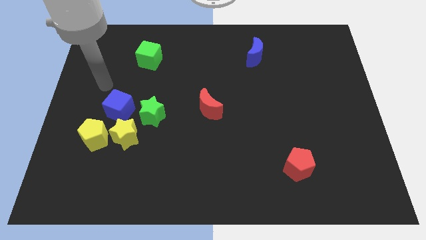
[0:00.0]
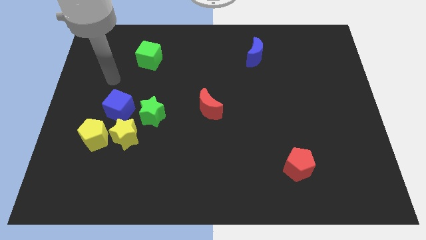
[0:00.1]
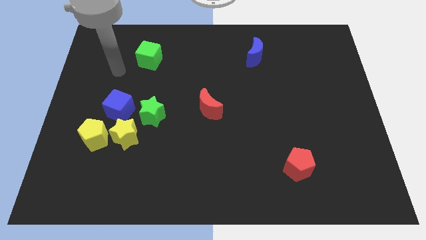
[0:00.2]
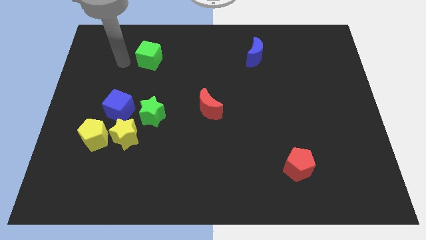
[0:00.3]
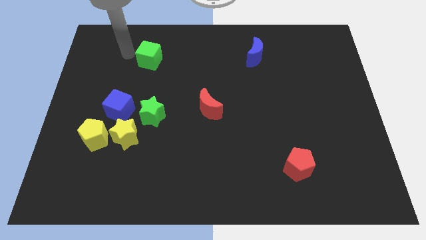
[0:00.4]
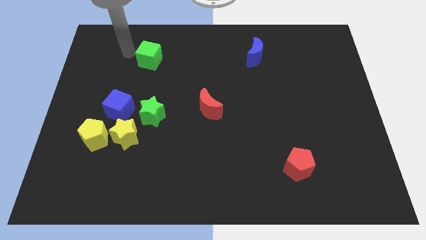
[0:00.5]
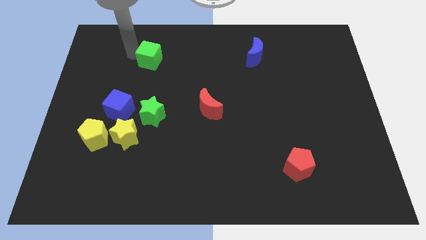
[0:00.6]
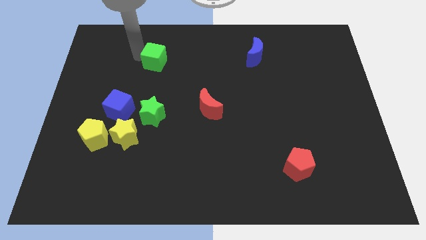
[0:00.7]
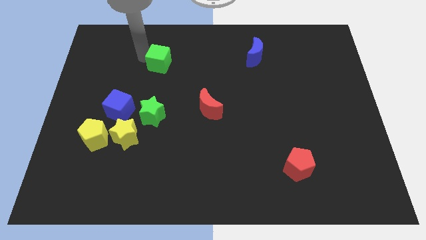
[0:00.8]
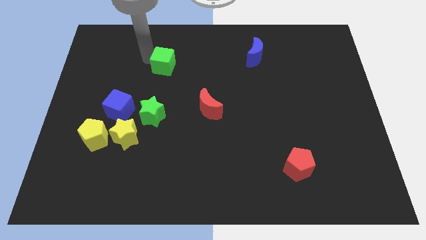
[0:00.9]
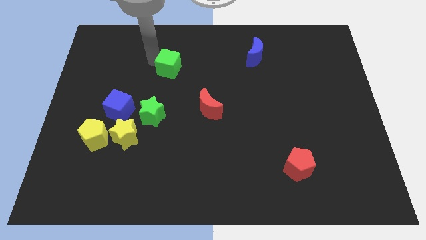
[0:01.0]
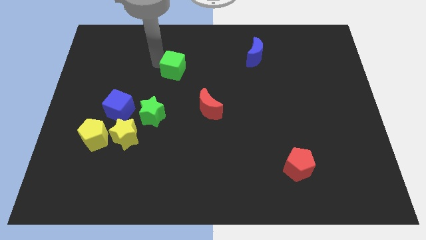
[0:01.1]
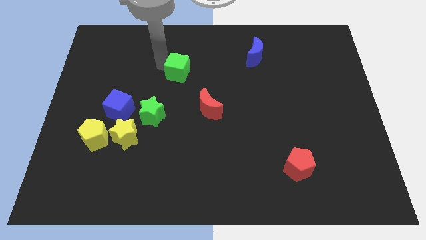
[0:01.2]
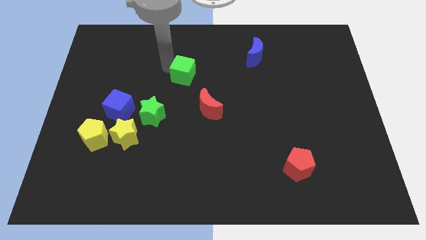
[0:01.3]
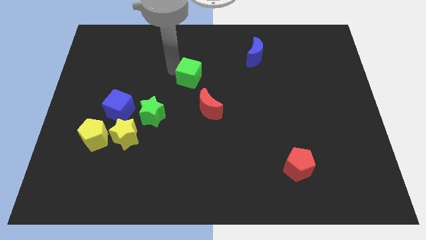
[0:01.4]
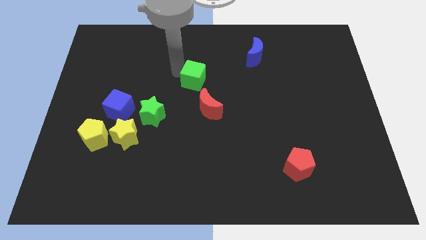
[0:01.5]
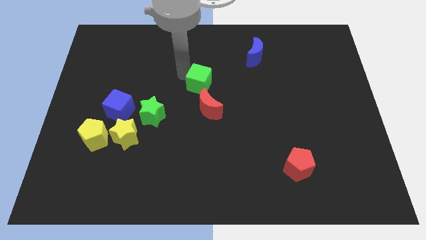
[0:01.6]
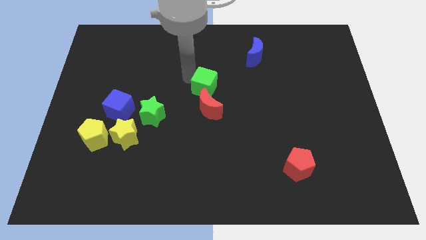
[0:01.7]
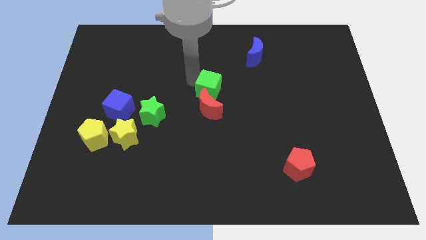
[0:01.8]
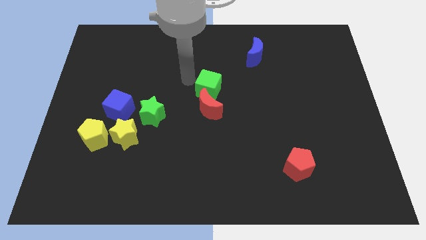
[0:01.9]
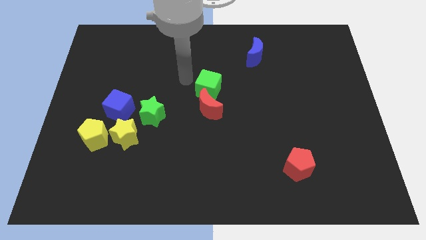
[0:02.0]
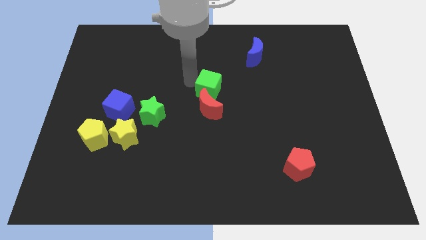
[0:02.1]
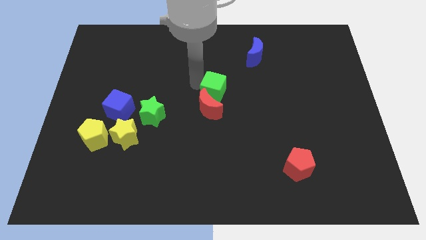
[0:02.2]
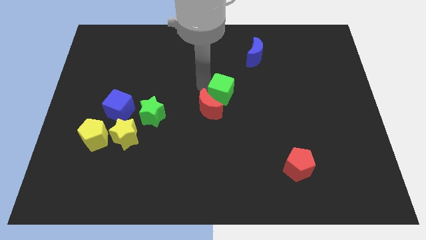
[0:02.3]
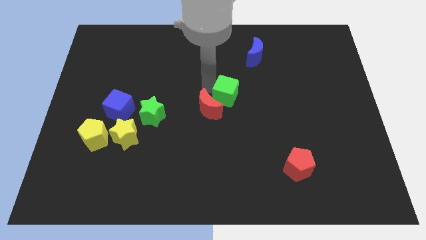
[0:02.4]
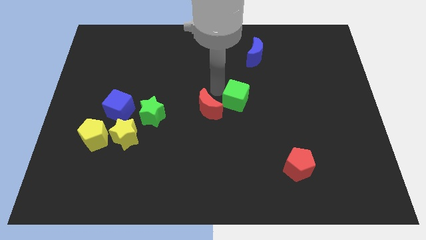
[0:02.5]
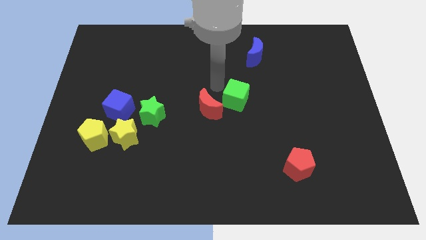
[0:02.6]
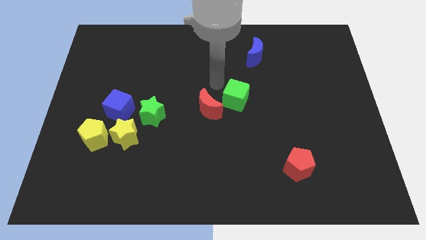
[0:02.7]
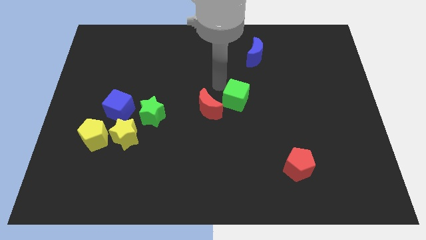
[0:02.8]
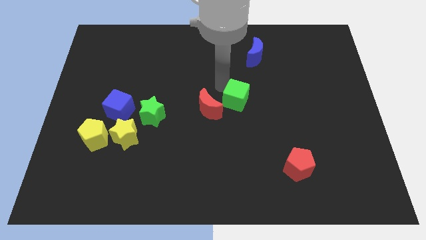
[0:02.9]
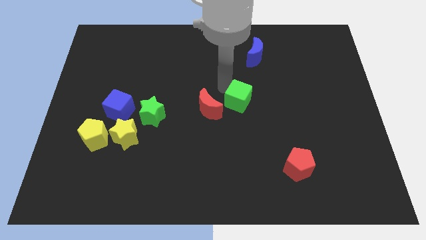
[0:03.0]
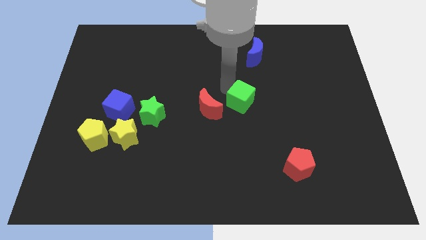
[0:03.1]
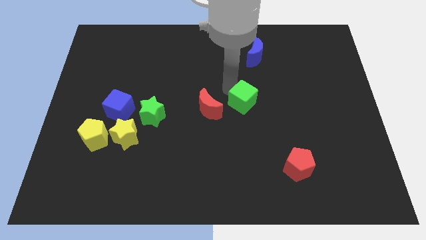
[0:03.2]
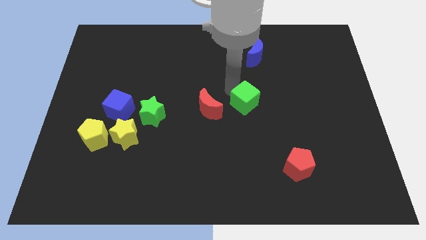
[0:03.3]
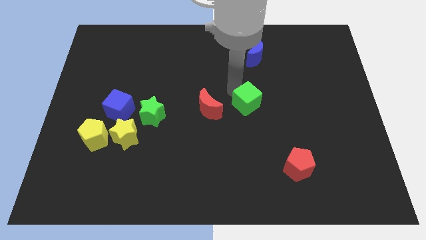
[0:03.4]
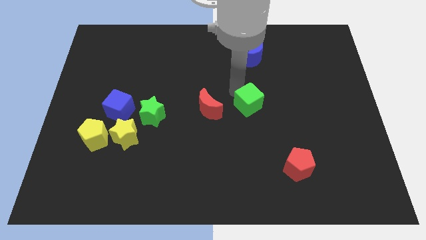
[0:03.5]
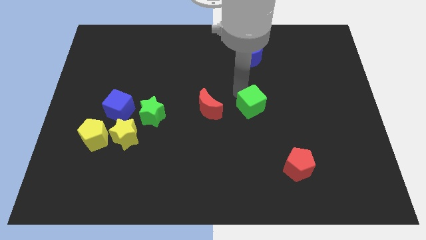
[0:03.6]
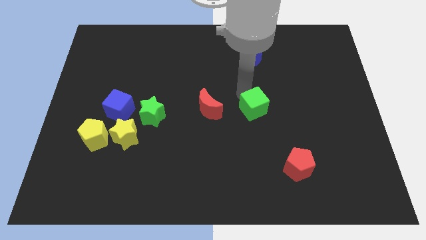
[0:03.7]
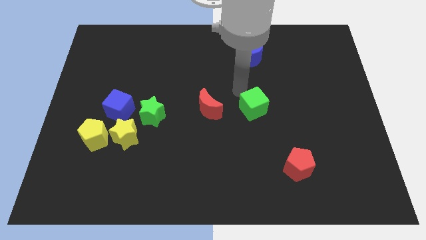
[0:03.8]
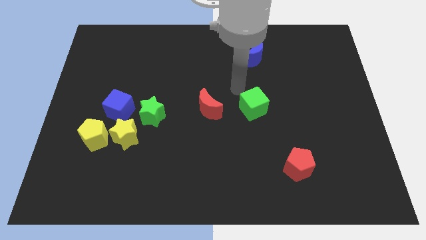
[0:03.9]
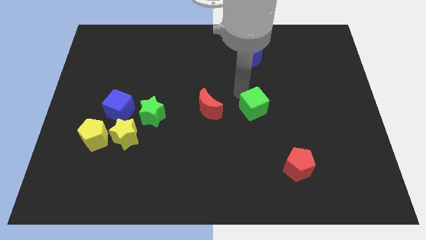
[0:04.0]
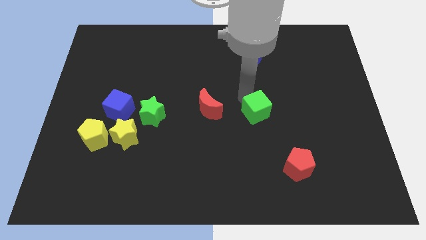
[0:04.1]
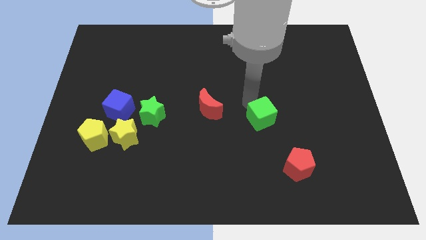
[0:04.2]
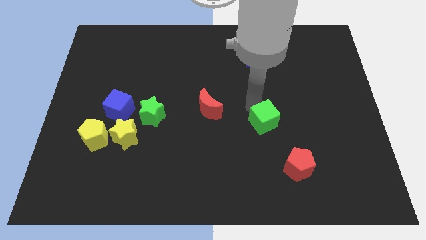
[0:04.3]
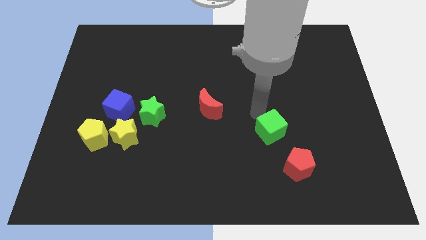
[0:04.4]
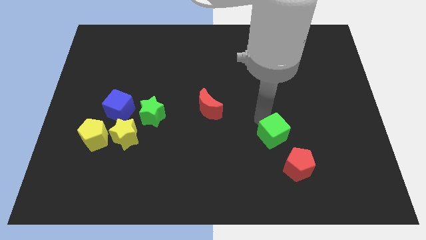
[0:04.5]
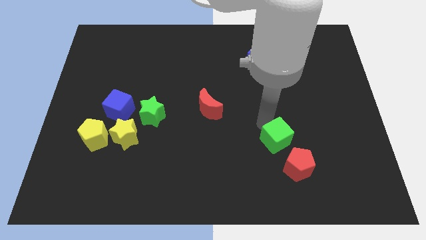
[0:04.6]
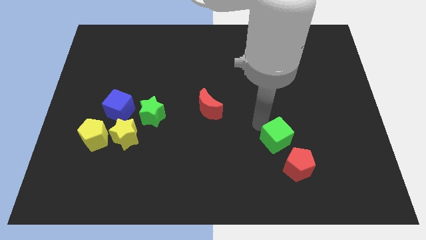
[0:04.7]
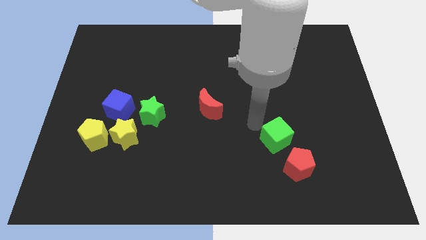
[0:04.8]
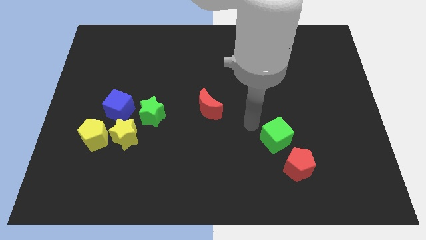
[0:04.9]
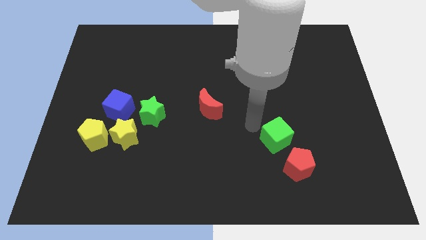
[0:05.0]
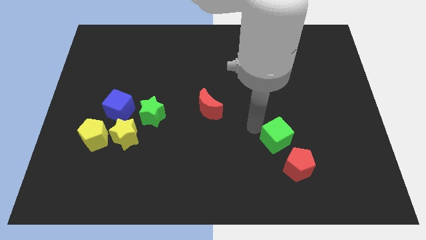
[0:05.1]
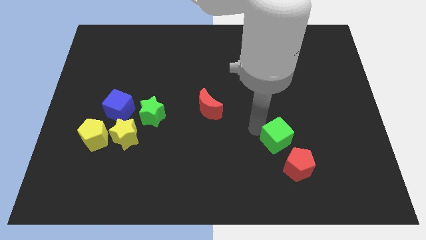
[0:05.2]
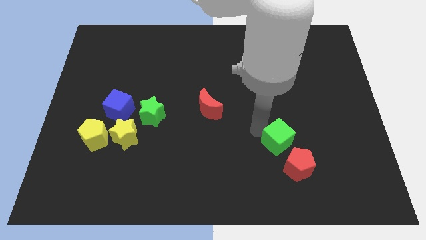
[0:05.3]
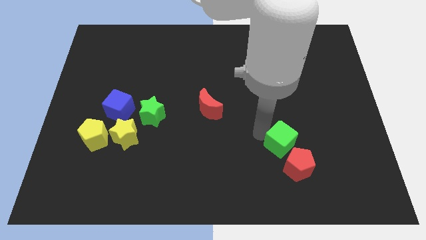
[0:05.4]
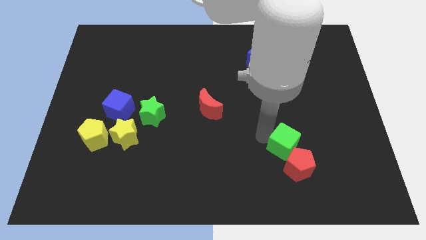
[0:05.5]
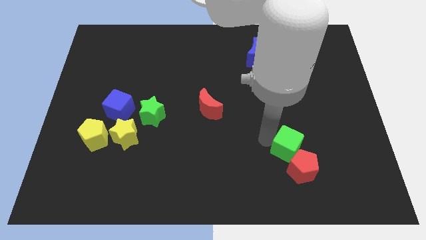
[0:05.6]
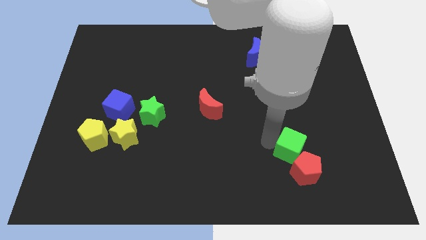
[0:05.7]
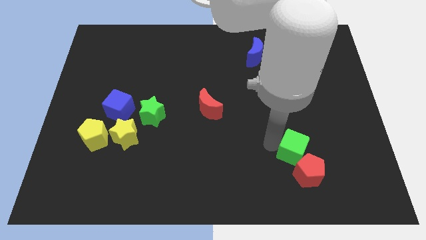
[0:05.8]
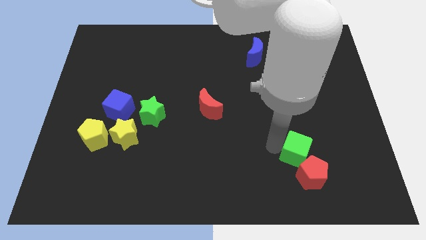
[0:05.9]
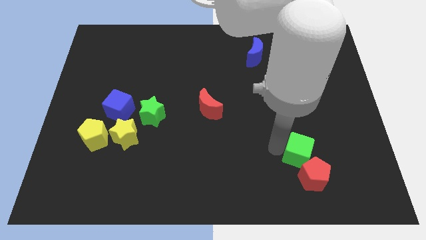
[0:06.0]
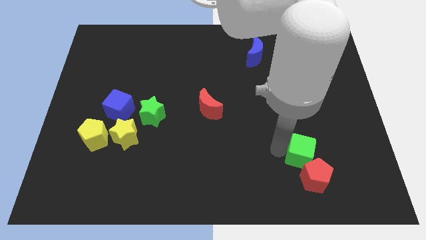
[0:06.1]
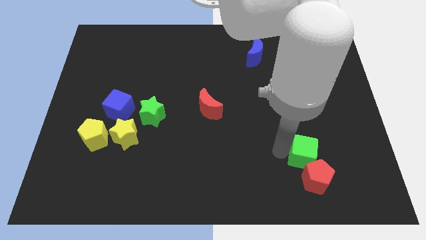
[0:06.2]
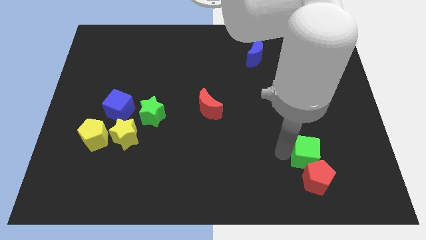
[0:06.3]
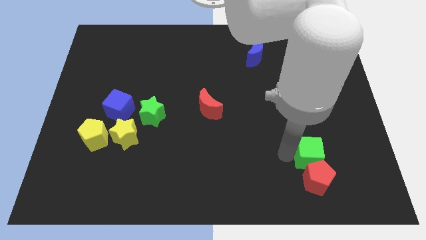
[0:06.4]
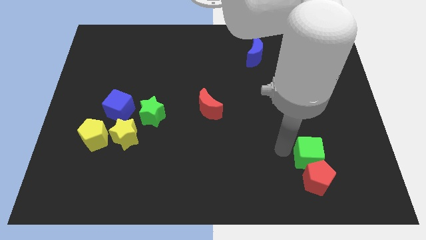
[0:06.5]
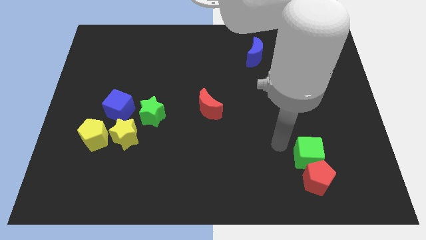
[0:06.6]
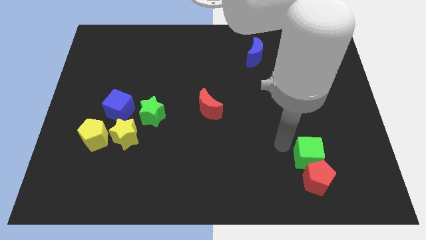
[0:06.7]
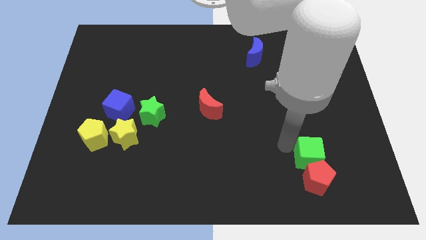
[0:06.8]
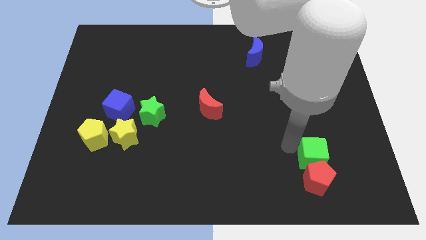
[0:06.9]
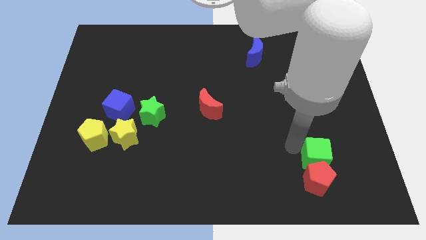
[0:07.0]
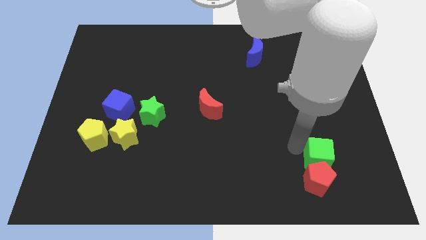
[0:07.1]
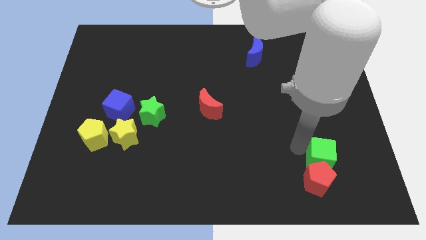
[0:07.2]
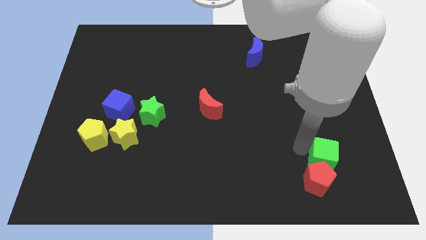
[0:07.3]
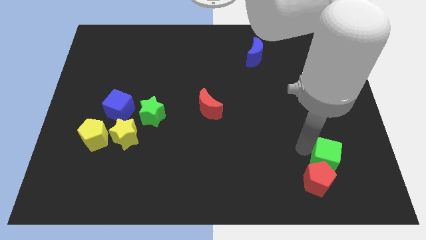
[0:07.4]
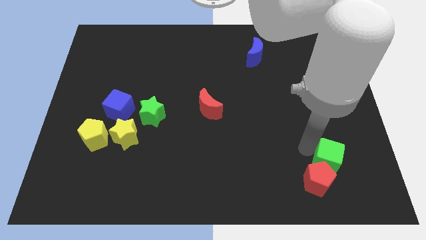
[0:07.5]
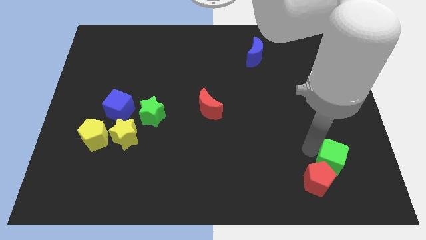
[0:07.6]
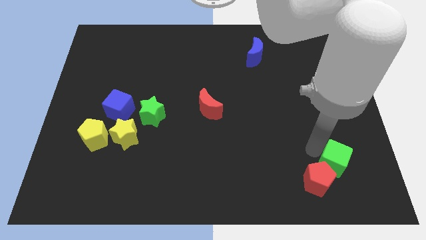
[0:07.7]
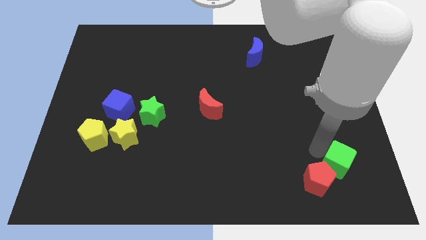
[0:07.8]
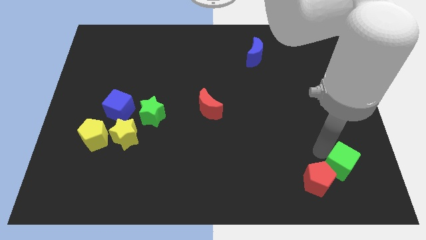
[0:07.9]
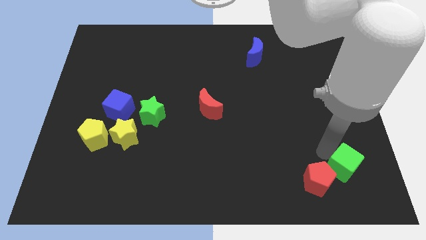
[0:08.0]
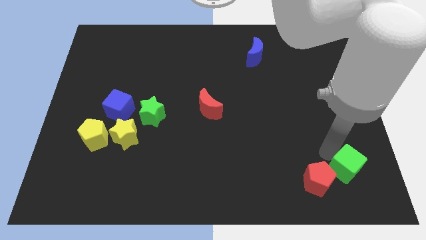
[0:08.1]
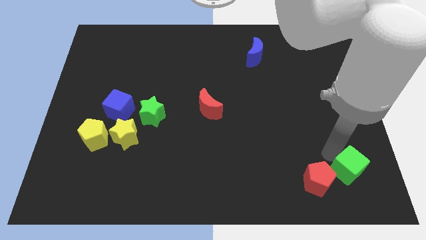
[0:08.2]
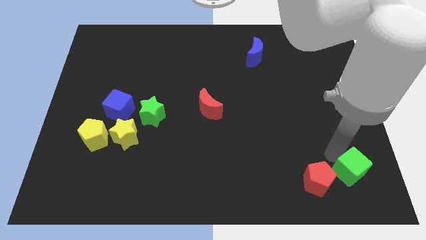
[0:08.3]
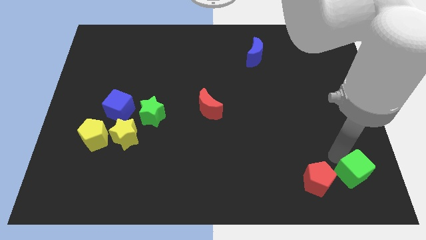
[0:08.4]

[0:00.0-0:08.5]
push the green cube to the lower right corner
